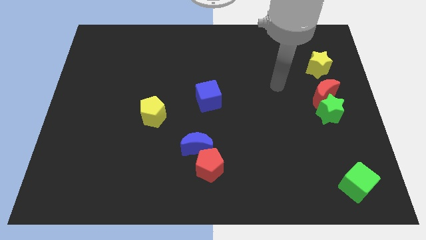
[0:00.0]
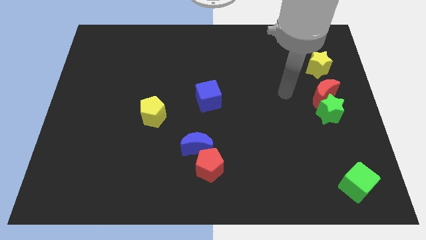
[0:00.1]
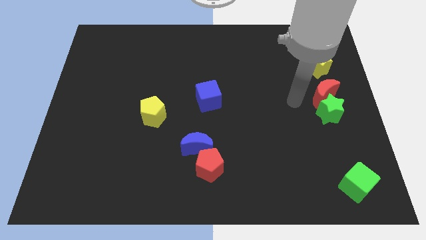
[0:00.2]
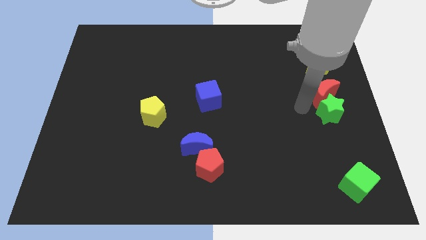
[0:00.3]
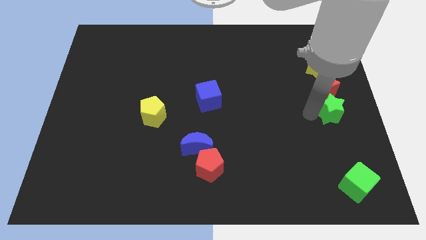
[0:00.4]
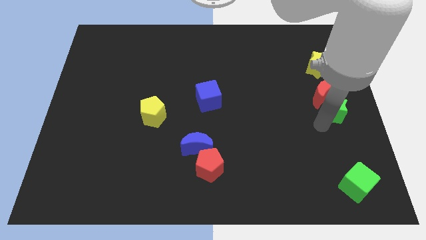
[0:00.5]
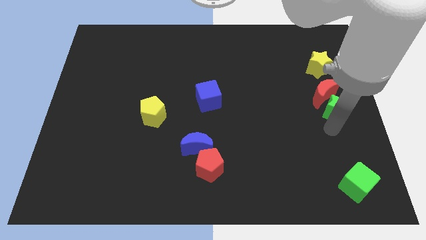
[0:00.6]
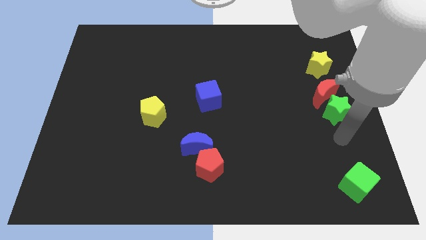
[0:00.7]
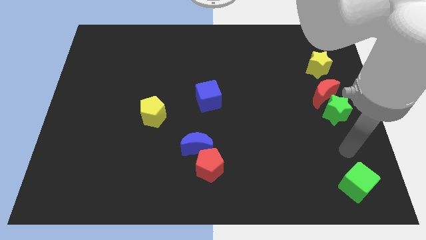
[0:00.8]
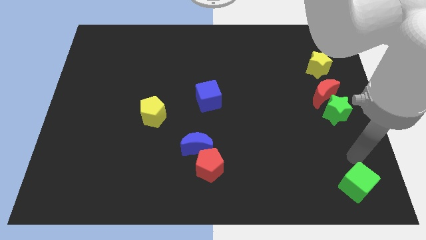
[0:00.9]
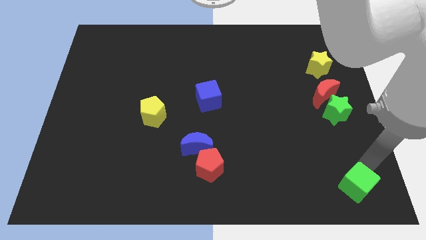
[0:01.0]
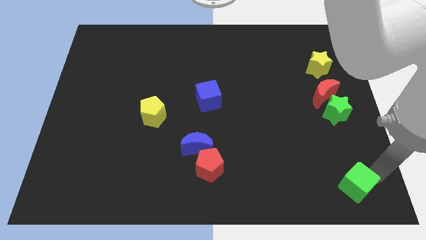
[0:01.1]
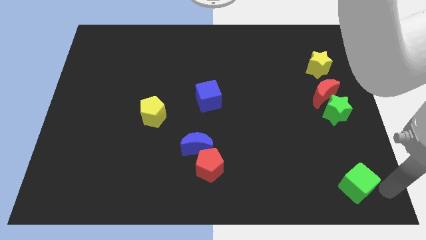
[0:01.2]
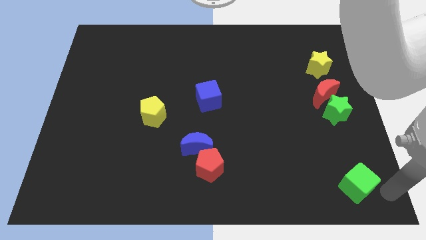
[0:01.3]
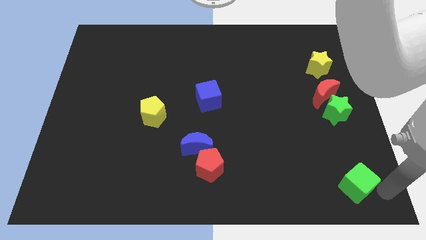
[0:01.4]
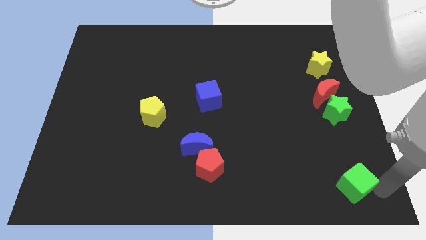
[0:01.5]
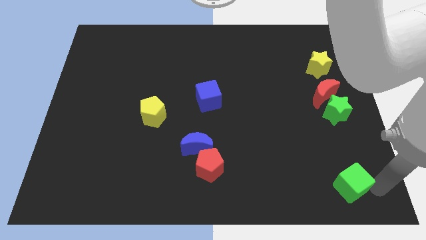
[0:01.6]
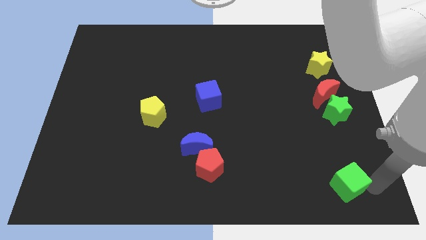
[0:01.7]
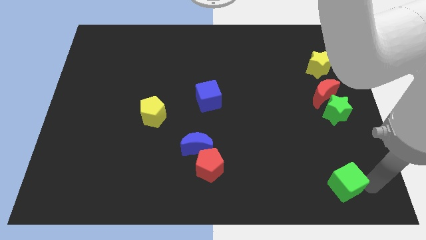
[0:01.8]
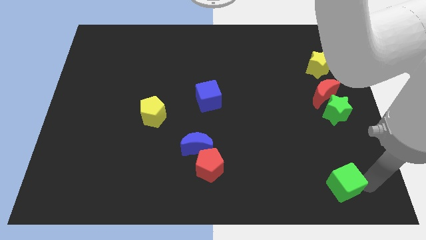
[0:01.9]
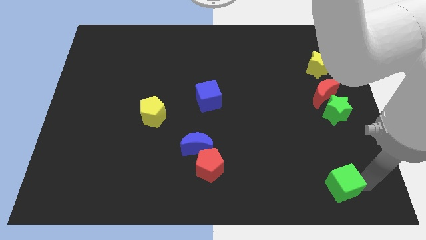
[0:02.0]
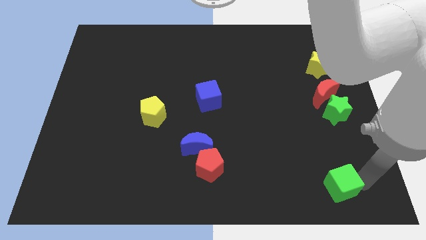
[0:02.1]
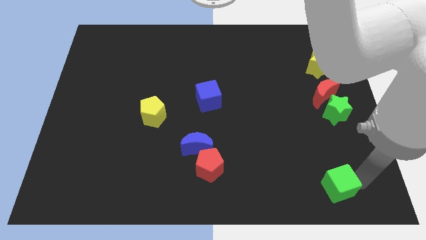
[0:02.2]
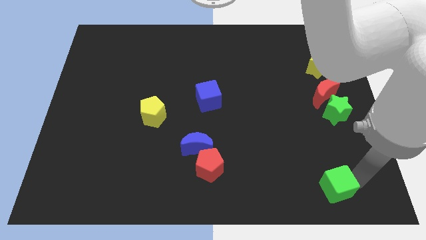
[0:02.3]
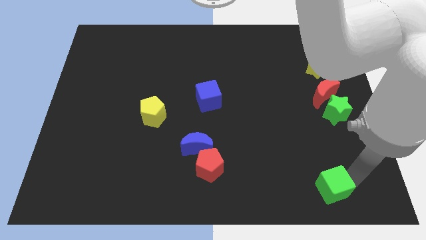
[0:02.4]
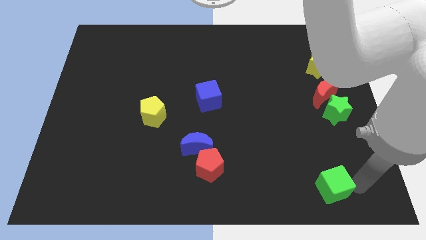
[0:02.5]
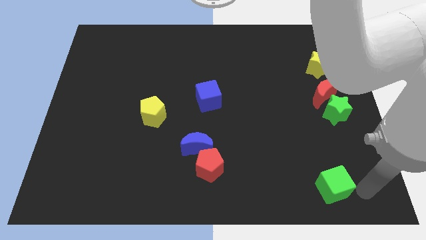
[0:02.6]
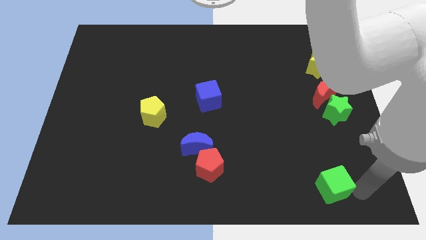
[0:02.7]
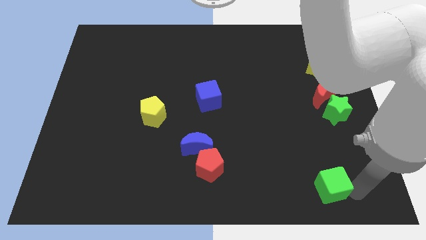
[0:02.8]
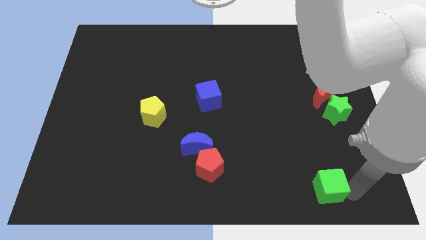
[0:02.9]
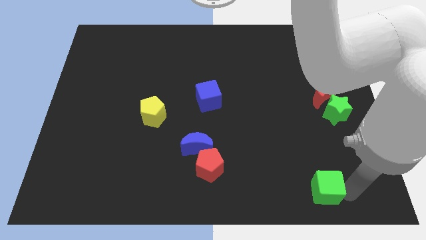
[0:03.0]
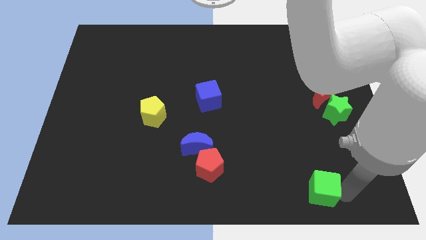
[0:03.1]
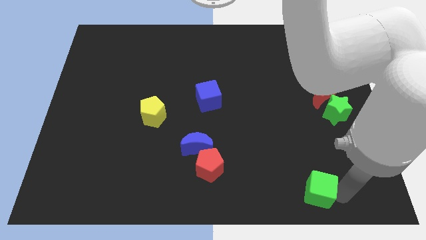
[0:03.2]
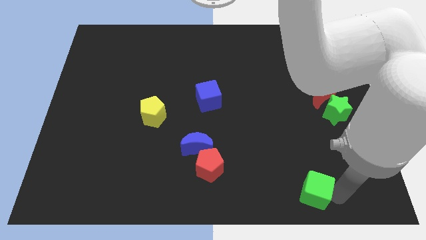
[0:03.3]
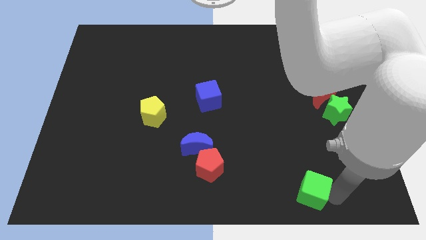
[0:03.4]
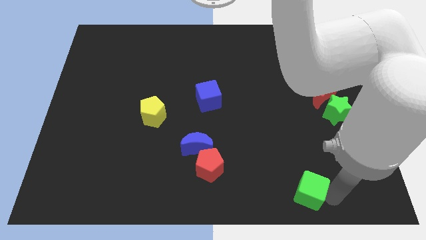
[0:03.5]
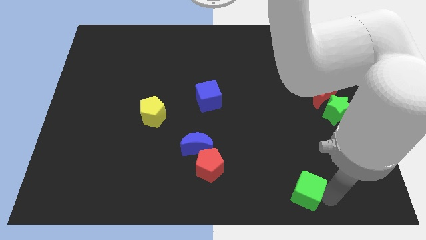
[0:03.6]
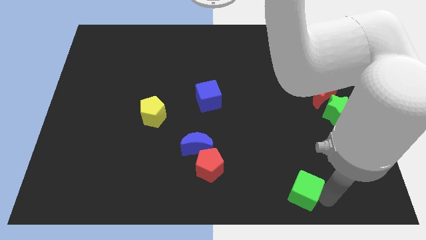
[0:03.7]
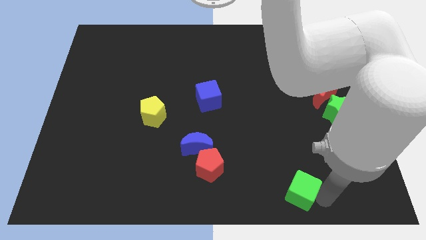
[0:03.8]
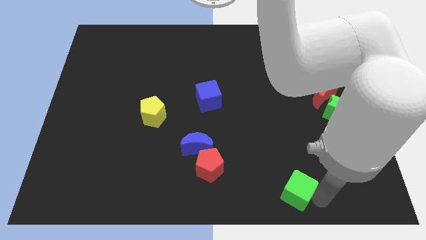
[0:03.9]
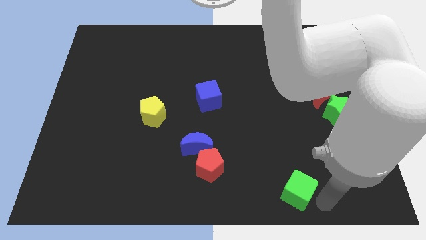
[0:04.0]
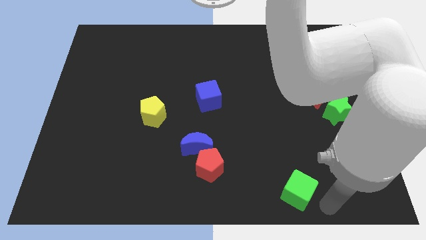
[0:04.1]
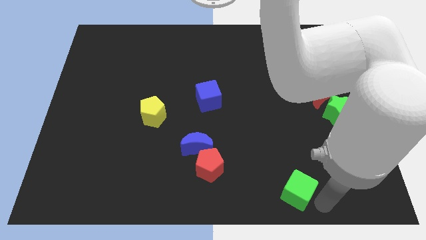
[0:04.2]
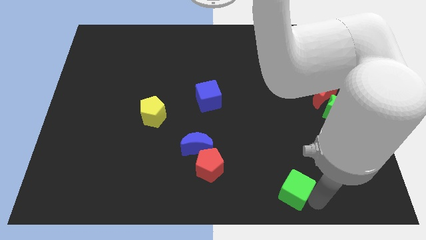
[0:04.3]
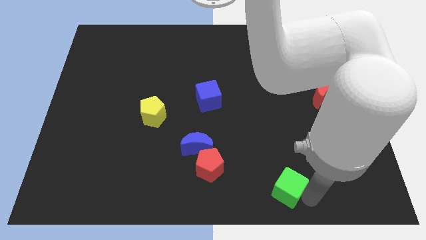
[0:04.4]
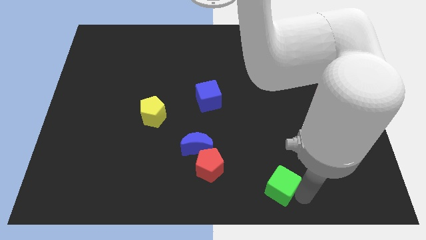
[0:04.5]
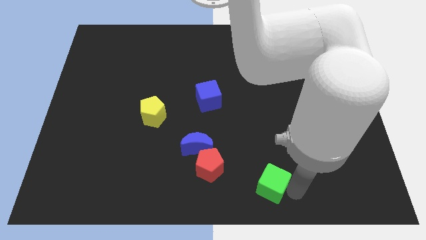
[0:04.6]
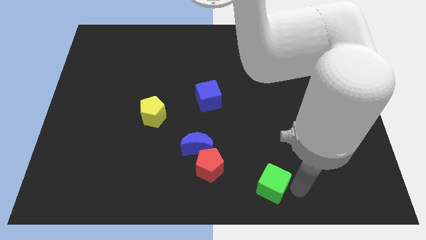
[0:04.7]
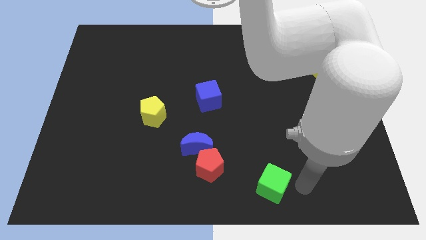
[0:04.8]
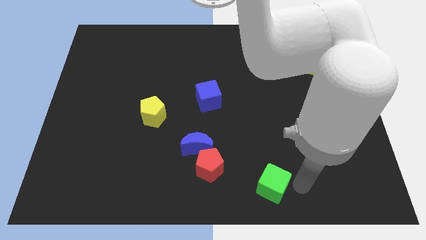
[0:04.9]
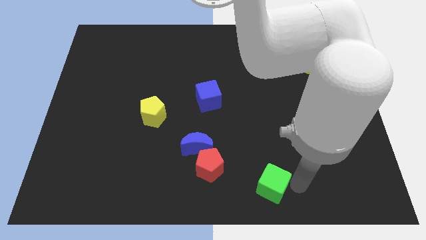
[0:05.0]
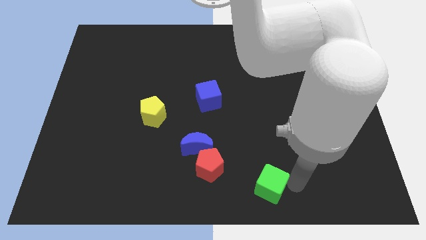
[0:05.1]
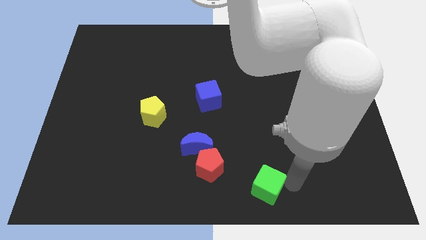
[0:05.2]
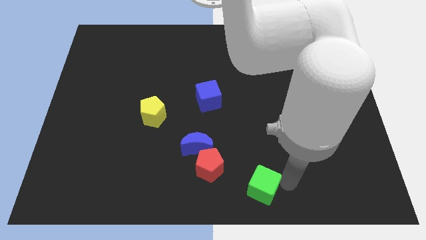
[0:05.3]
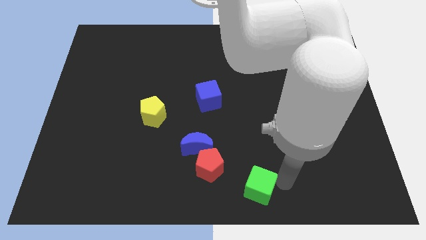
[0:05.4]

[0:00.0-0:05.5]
push the green cube to the left

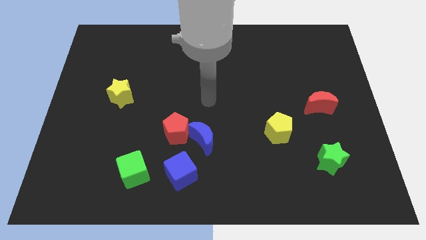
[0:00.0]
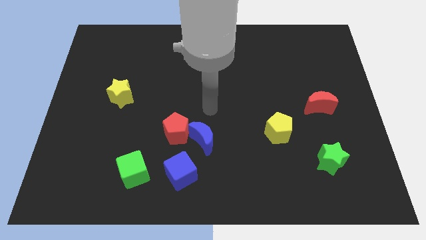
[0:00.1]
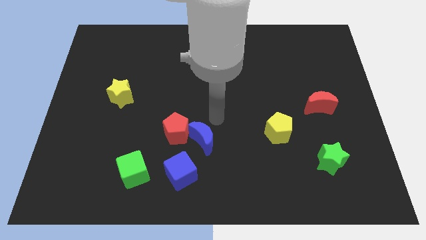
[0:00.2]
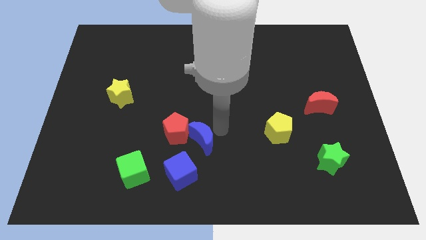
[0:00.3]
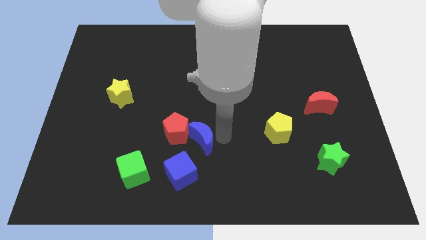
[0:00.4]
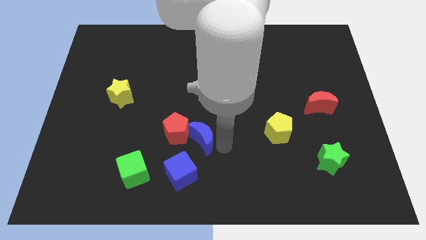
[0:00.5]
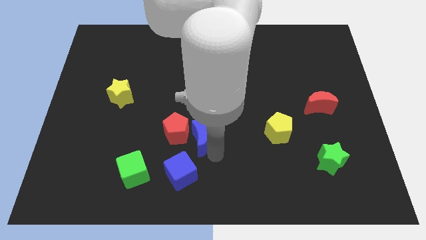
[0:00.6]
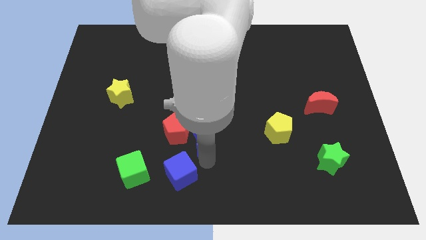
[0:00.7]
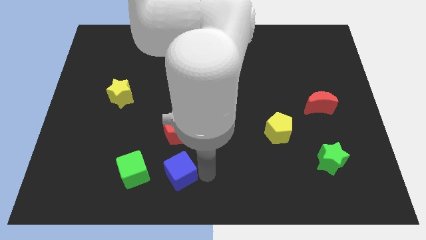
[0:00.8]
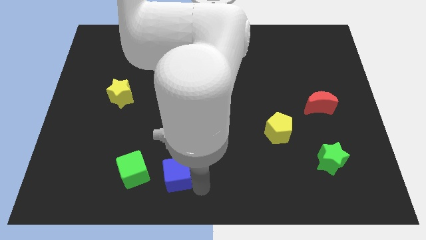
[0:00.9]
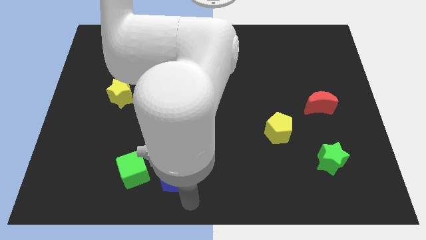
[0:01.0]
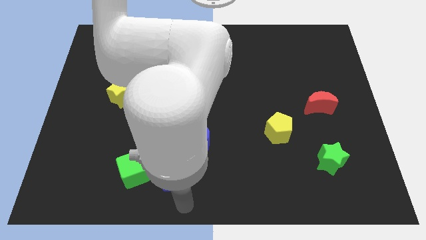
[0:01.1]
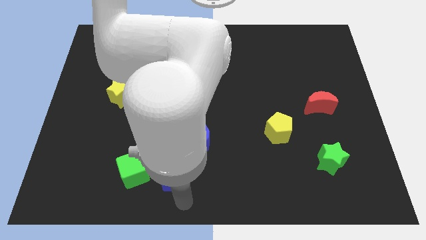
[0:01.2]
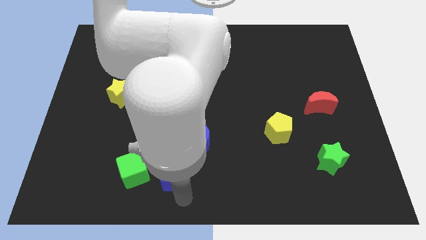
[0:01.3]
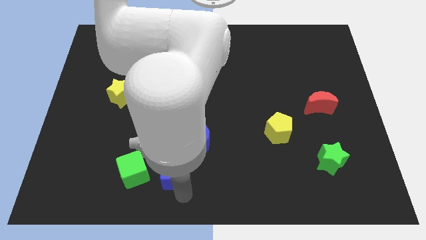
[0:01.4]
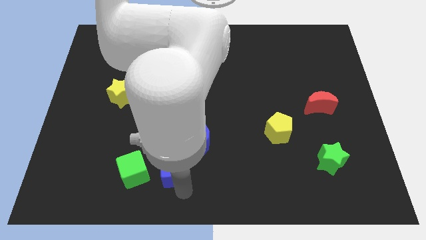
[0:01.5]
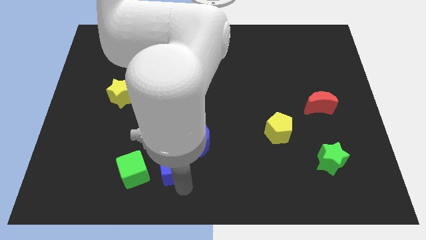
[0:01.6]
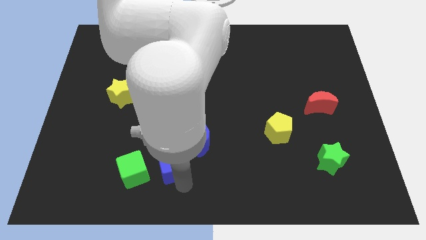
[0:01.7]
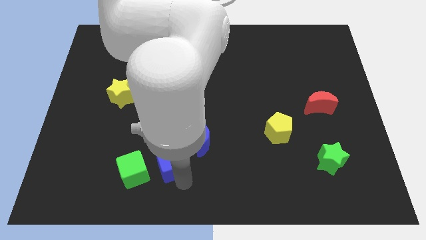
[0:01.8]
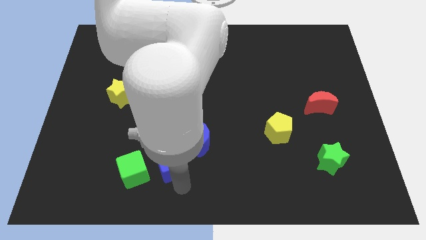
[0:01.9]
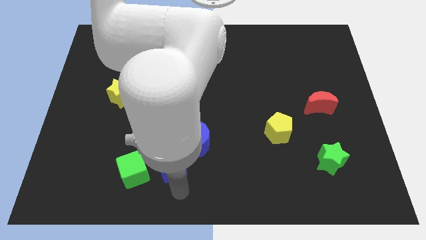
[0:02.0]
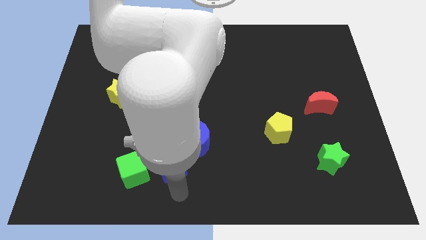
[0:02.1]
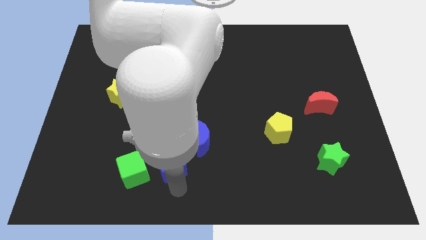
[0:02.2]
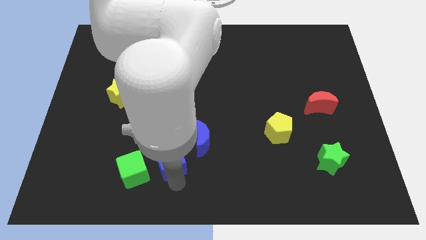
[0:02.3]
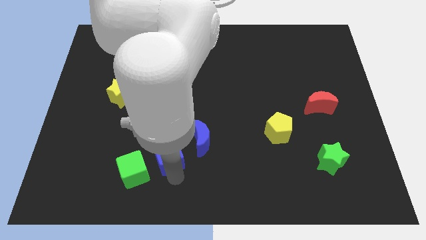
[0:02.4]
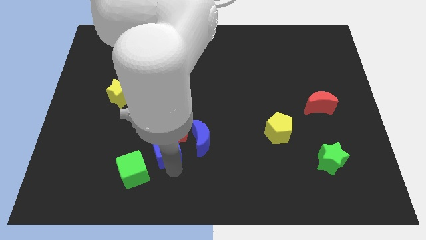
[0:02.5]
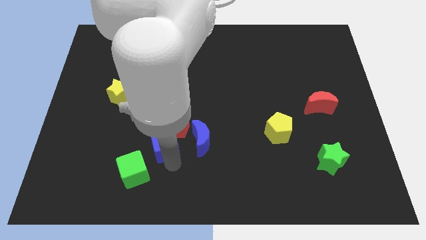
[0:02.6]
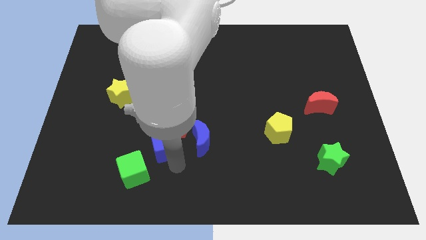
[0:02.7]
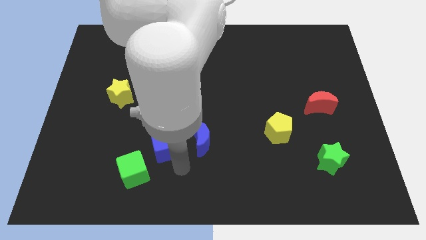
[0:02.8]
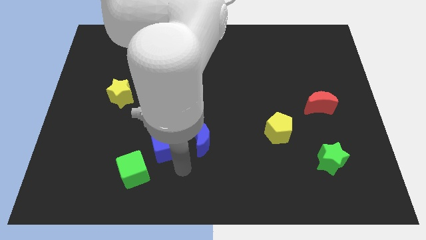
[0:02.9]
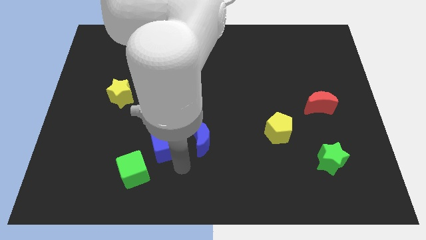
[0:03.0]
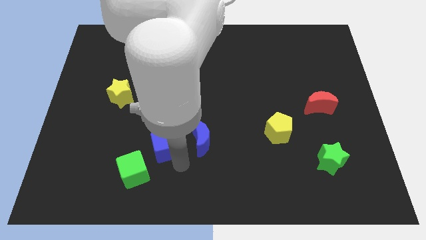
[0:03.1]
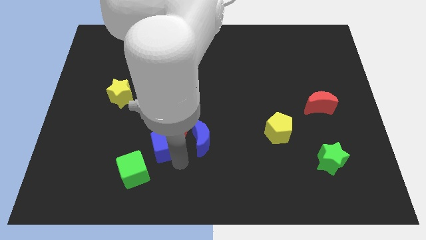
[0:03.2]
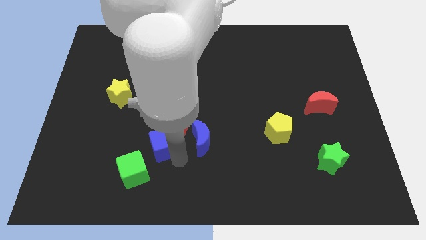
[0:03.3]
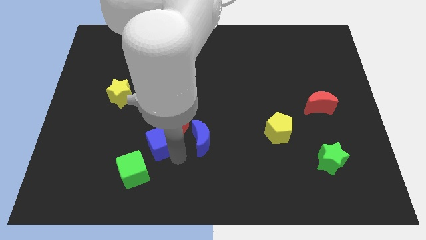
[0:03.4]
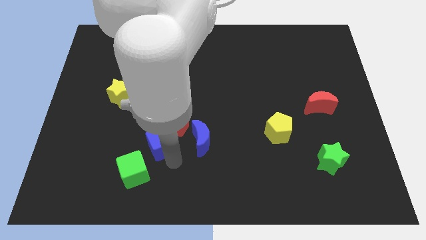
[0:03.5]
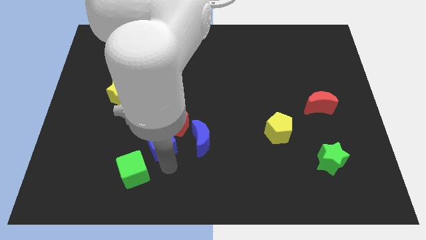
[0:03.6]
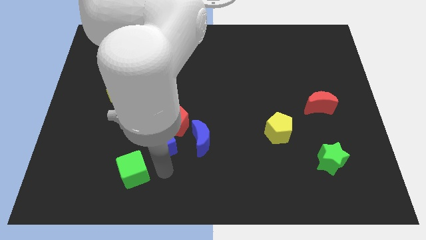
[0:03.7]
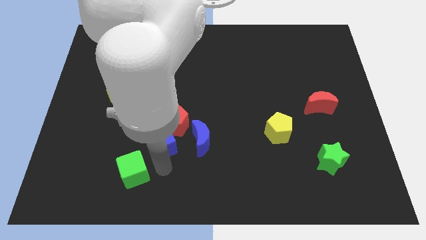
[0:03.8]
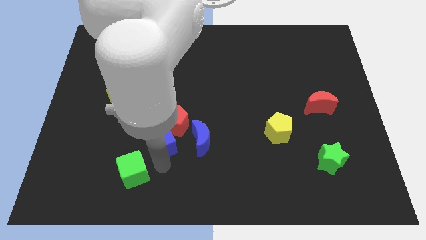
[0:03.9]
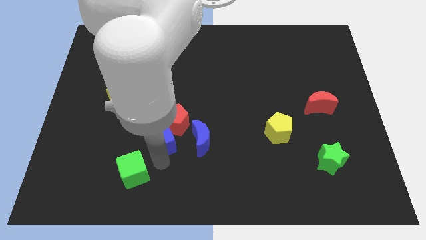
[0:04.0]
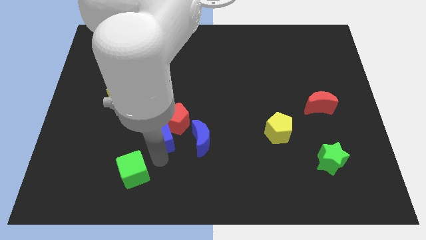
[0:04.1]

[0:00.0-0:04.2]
slightly move the blue cube up
